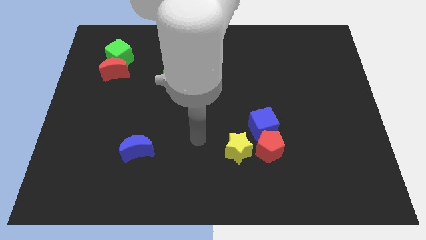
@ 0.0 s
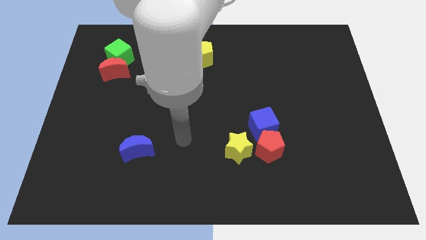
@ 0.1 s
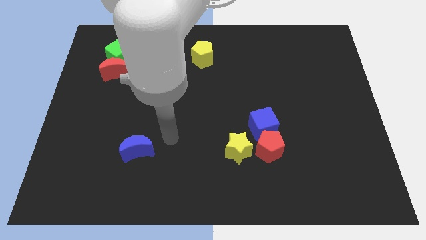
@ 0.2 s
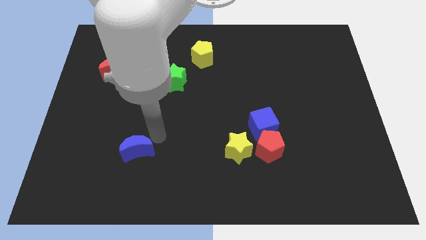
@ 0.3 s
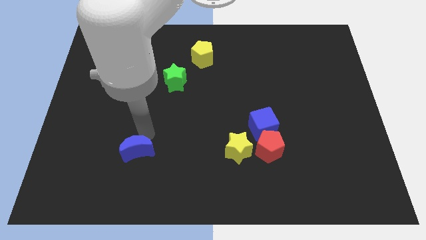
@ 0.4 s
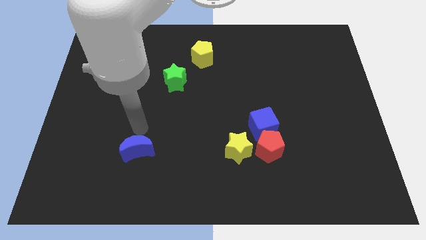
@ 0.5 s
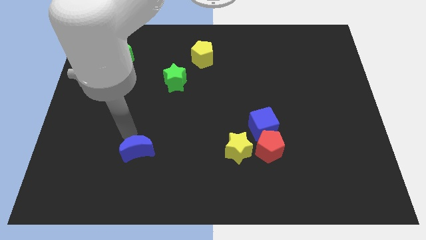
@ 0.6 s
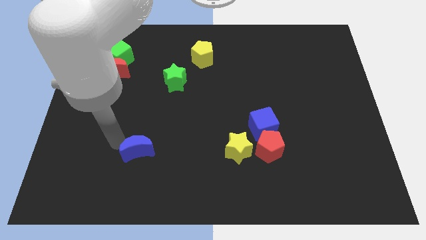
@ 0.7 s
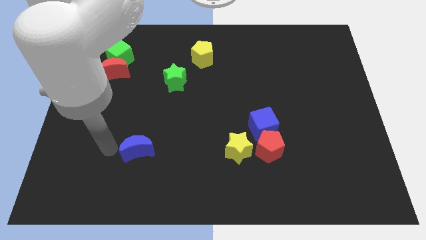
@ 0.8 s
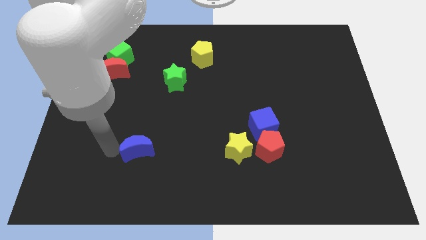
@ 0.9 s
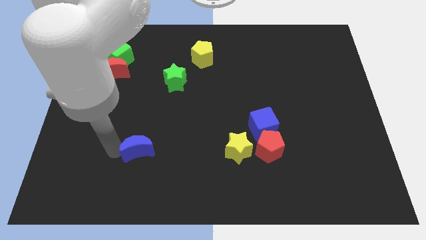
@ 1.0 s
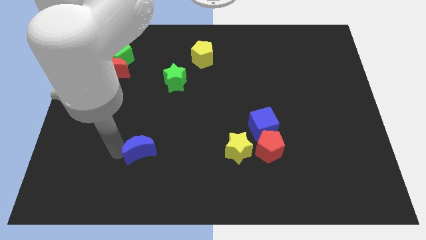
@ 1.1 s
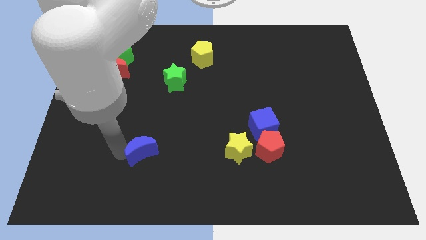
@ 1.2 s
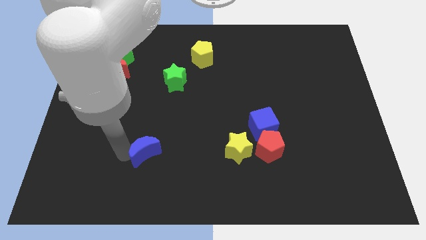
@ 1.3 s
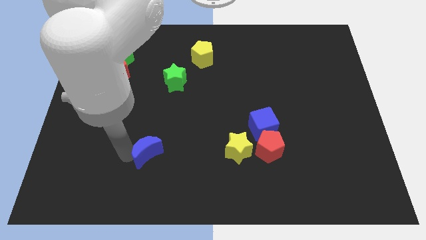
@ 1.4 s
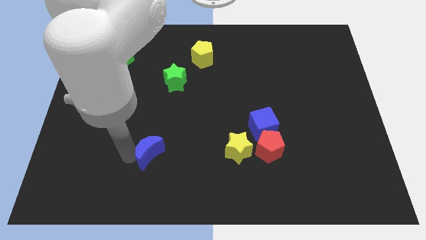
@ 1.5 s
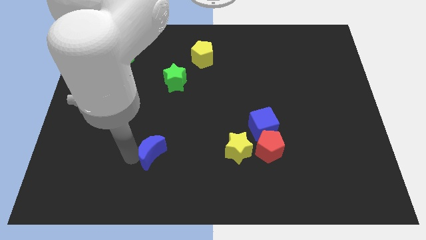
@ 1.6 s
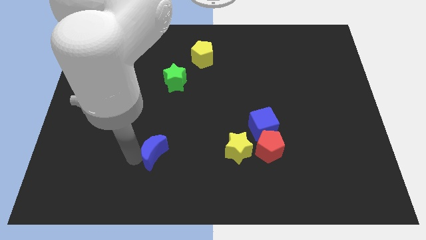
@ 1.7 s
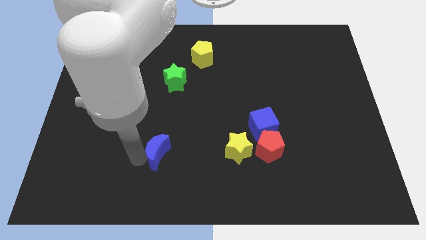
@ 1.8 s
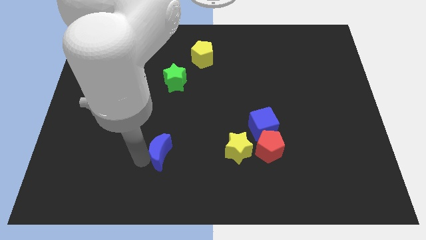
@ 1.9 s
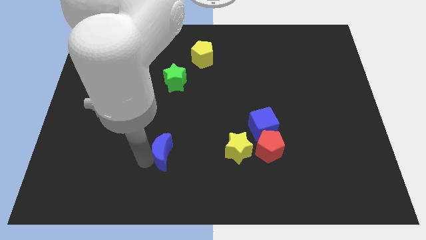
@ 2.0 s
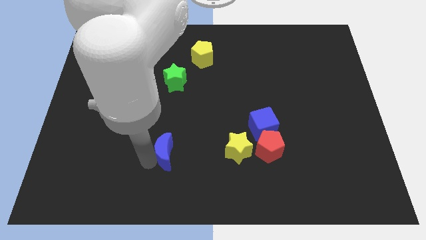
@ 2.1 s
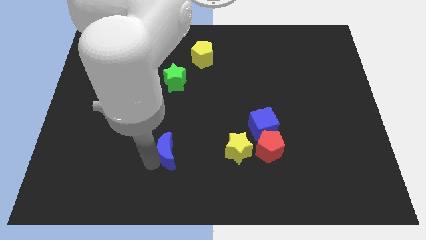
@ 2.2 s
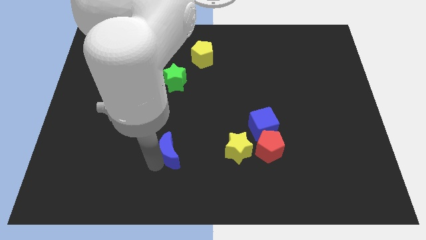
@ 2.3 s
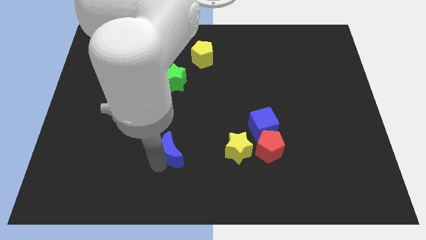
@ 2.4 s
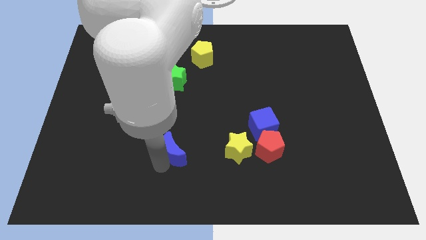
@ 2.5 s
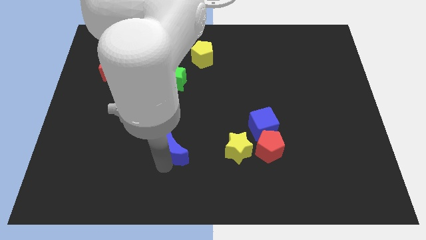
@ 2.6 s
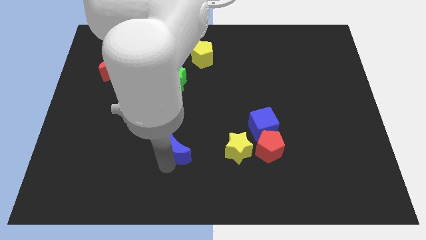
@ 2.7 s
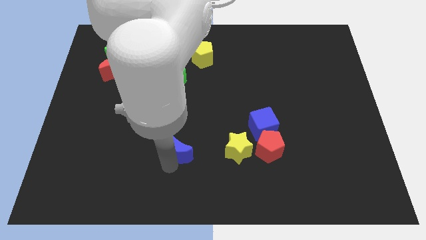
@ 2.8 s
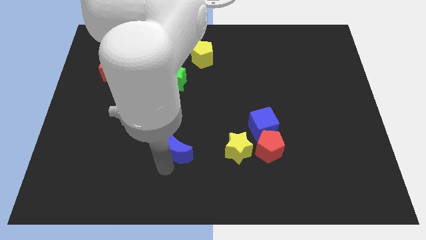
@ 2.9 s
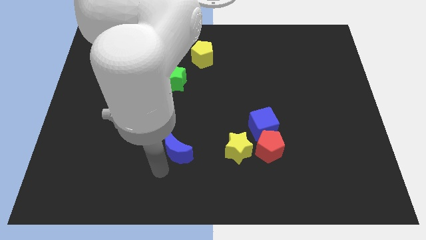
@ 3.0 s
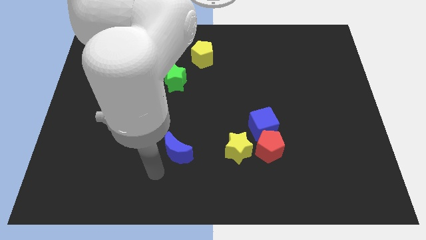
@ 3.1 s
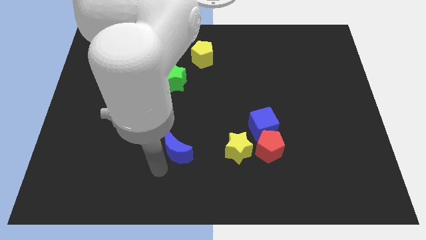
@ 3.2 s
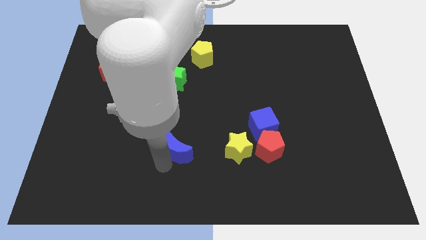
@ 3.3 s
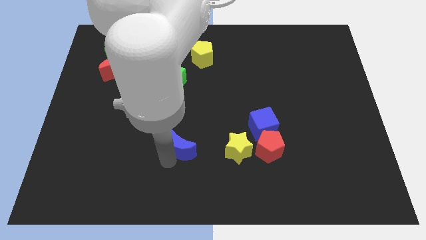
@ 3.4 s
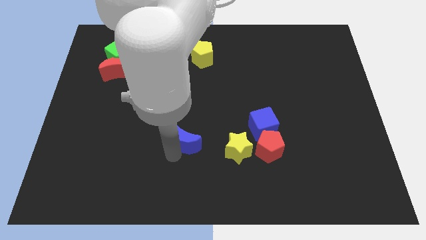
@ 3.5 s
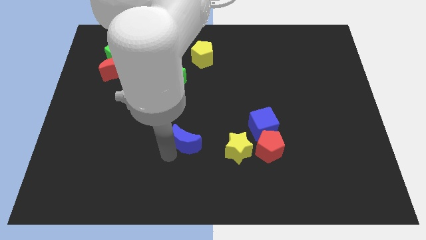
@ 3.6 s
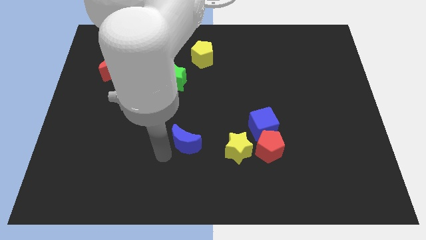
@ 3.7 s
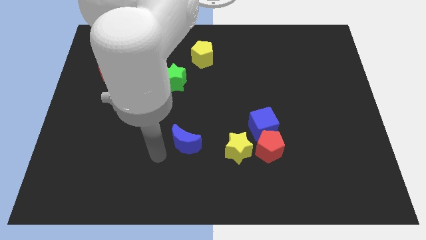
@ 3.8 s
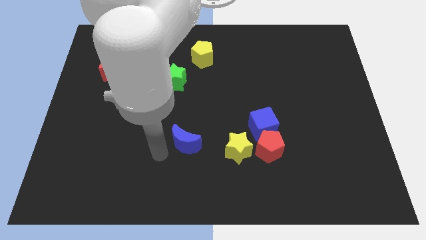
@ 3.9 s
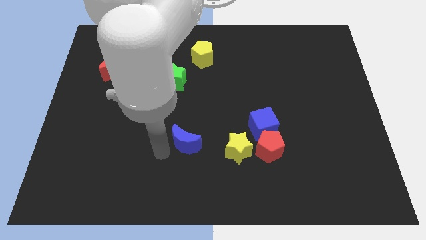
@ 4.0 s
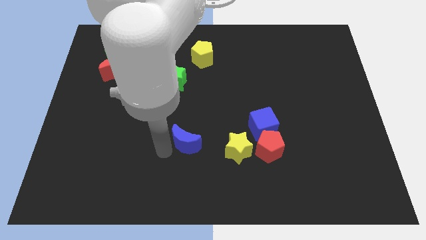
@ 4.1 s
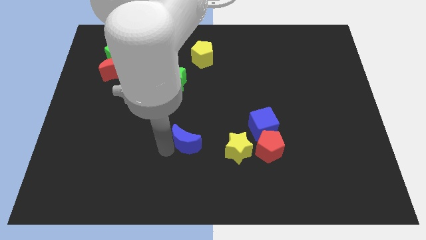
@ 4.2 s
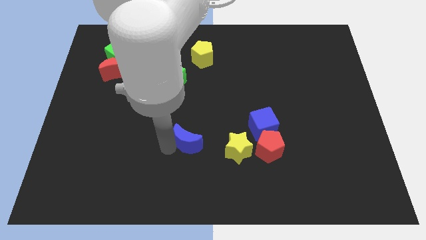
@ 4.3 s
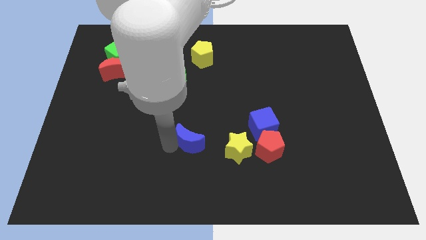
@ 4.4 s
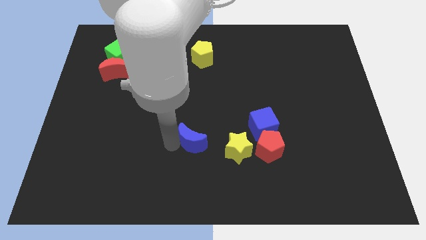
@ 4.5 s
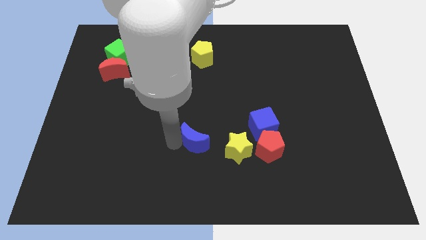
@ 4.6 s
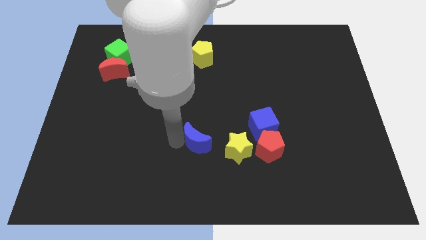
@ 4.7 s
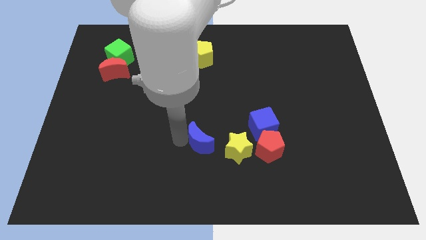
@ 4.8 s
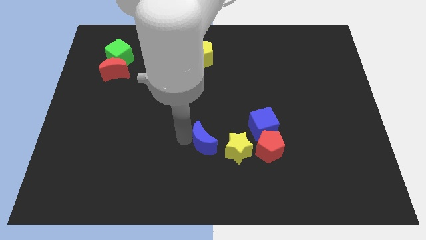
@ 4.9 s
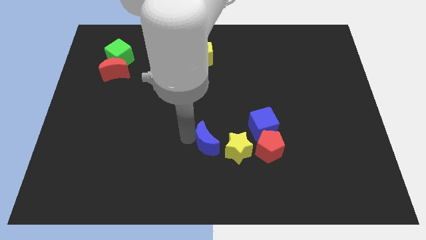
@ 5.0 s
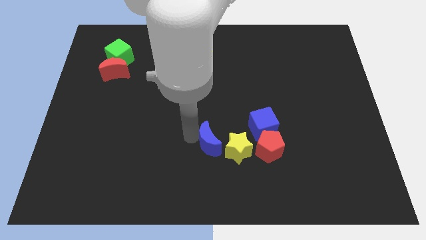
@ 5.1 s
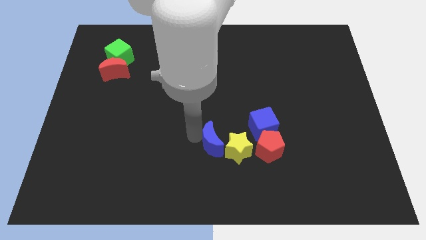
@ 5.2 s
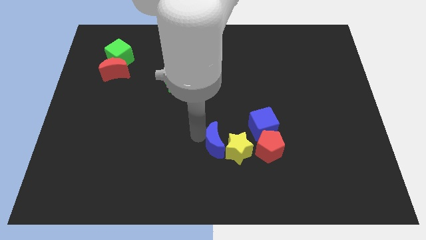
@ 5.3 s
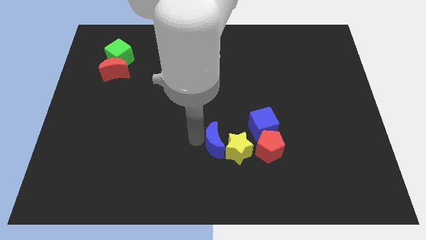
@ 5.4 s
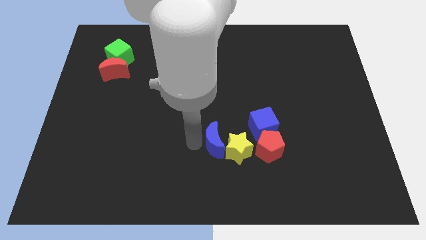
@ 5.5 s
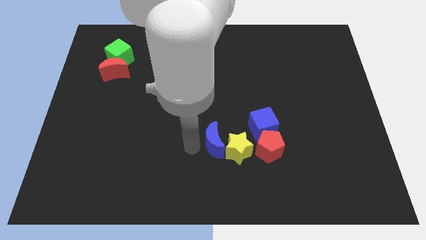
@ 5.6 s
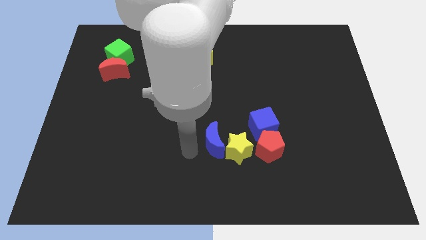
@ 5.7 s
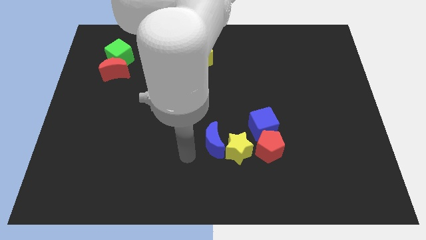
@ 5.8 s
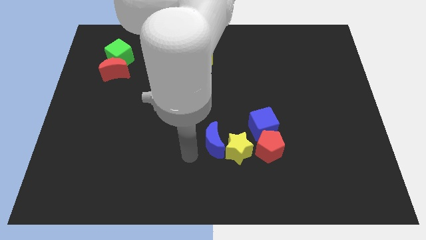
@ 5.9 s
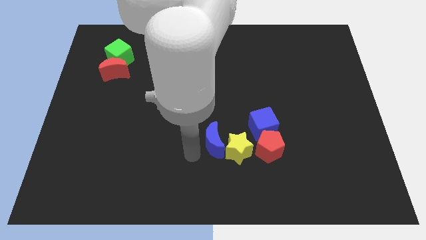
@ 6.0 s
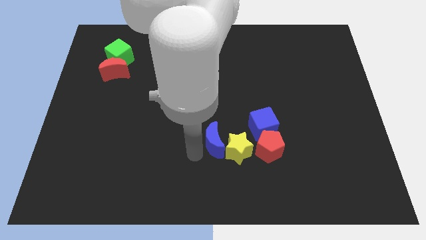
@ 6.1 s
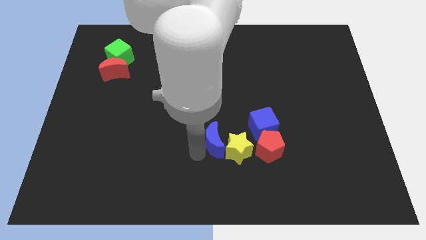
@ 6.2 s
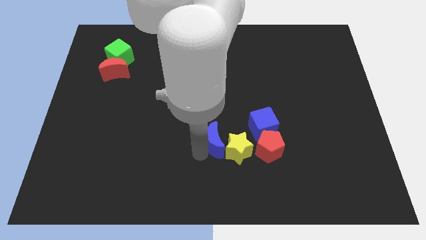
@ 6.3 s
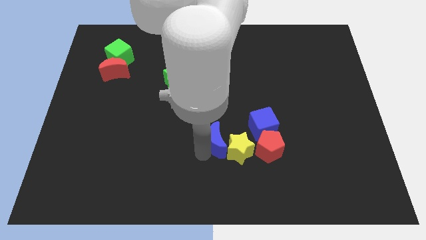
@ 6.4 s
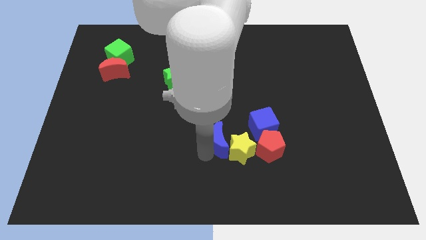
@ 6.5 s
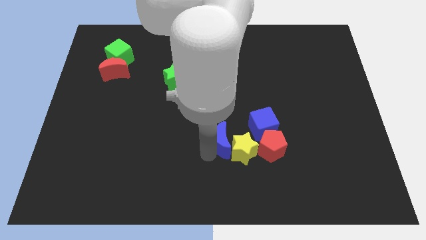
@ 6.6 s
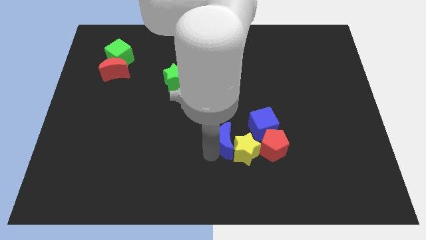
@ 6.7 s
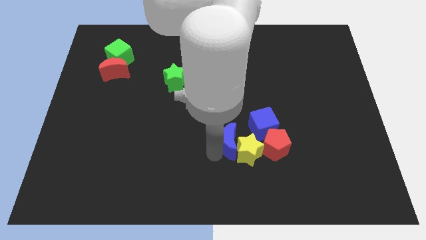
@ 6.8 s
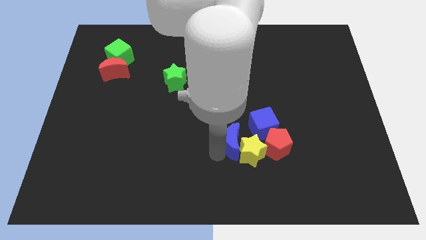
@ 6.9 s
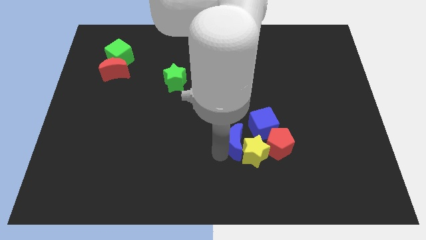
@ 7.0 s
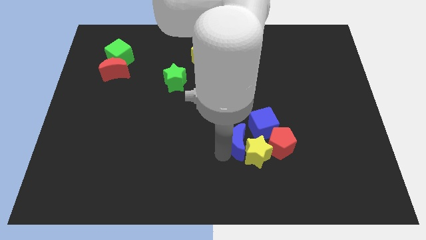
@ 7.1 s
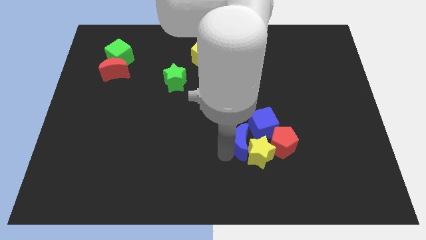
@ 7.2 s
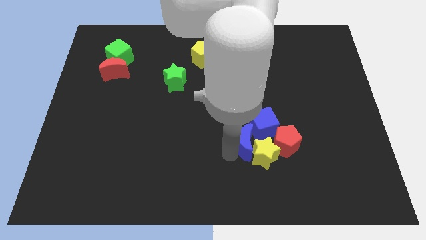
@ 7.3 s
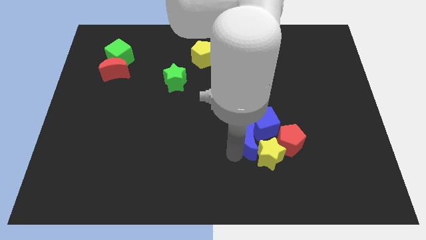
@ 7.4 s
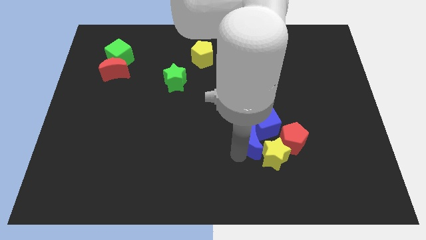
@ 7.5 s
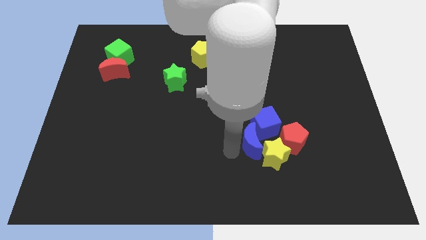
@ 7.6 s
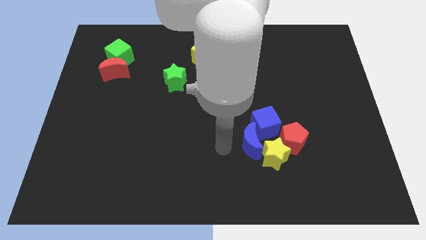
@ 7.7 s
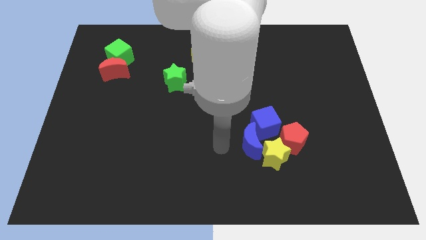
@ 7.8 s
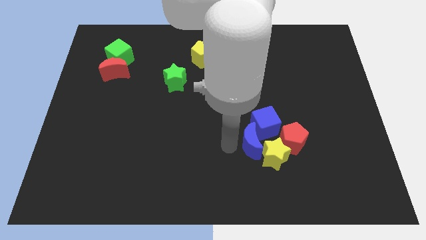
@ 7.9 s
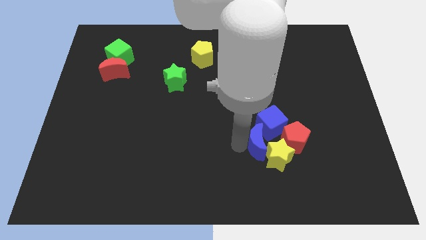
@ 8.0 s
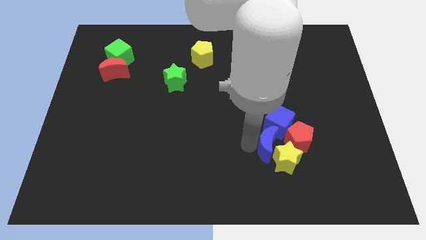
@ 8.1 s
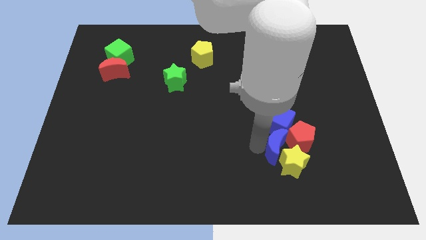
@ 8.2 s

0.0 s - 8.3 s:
put the blue moon towards the red pentagon
